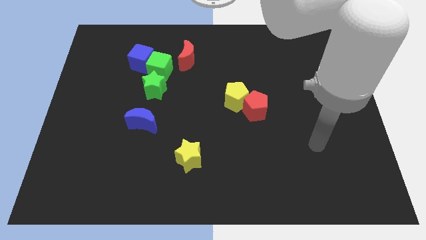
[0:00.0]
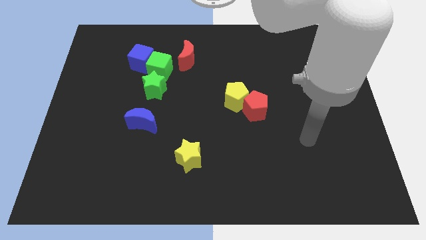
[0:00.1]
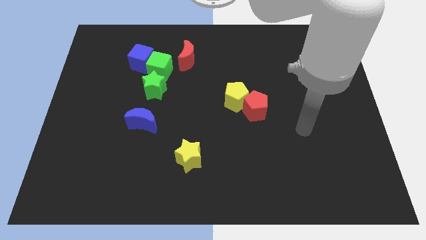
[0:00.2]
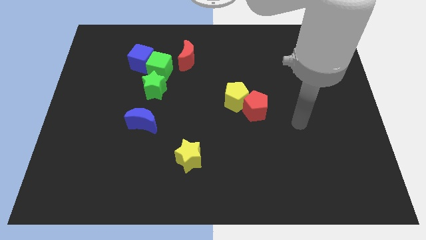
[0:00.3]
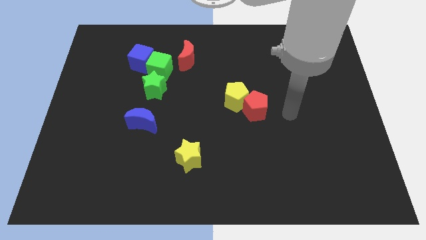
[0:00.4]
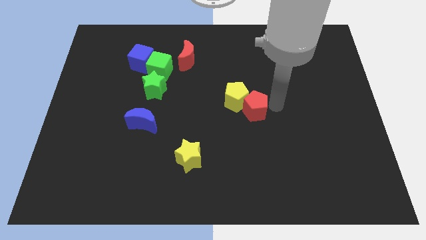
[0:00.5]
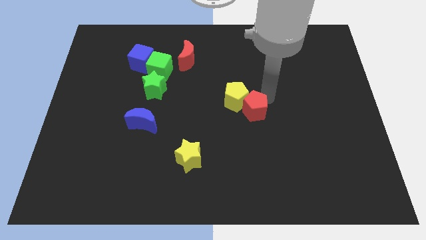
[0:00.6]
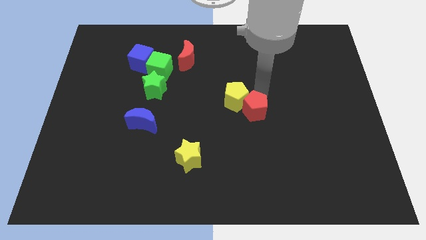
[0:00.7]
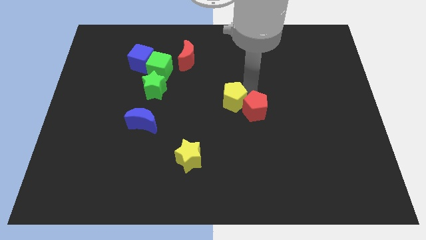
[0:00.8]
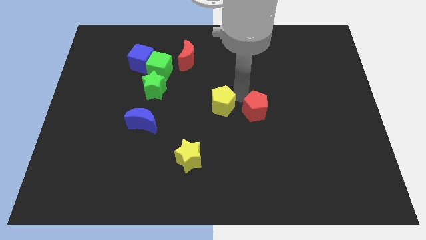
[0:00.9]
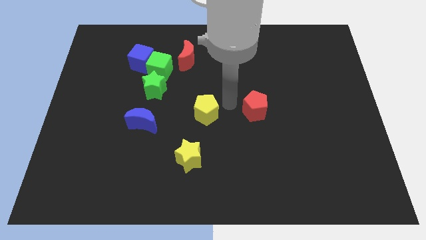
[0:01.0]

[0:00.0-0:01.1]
move the red pentagon away from the yellow pentagon

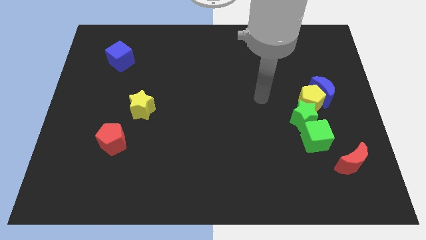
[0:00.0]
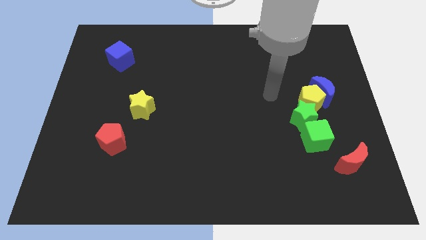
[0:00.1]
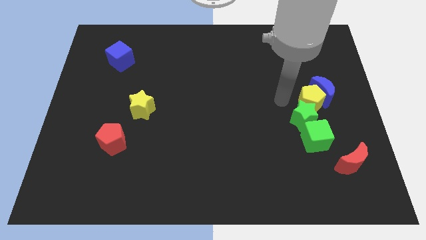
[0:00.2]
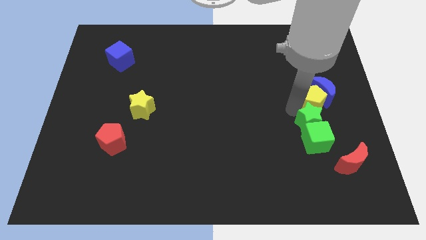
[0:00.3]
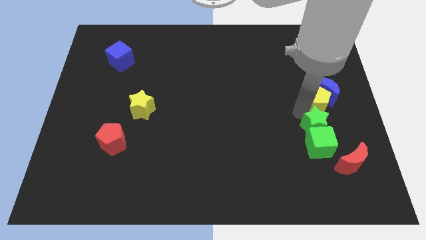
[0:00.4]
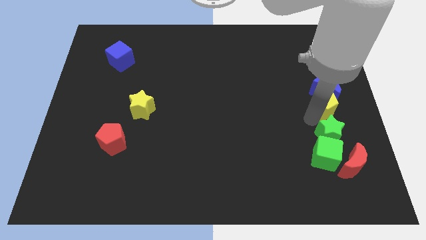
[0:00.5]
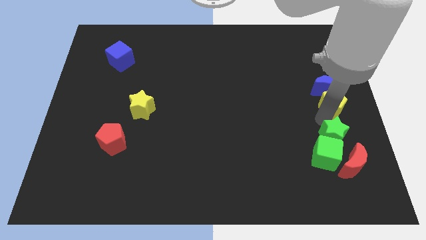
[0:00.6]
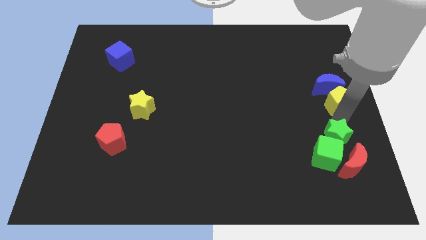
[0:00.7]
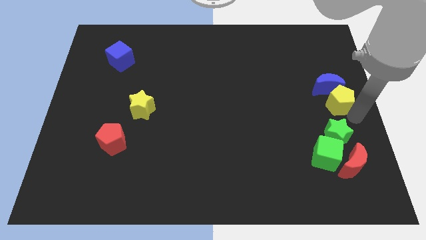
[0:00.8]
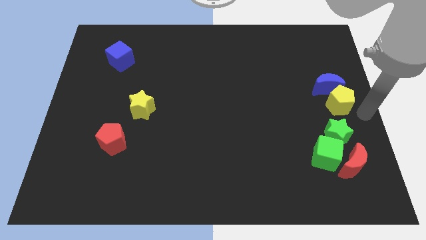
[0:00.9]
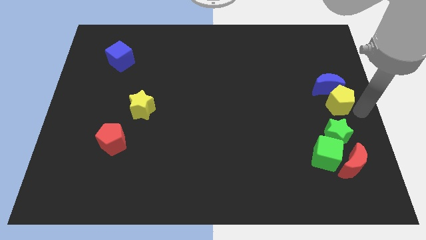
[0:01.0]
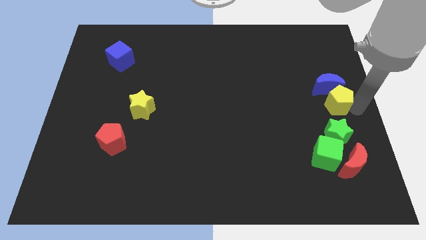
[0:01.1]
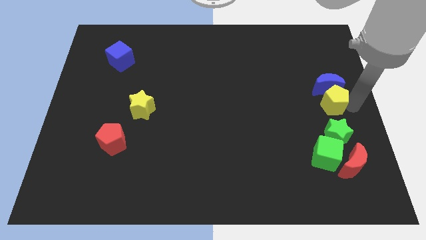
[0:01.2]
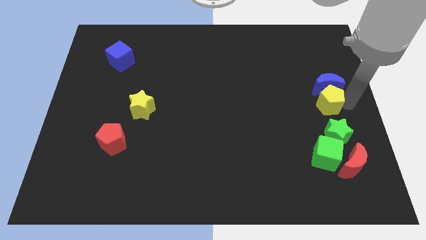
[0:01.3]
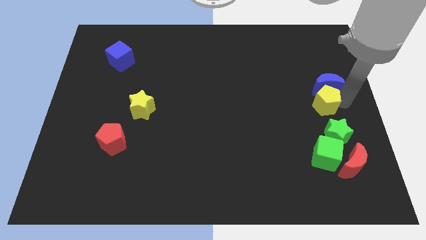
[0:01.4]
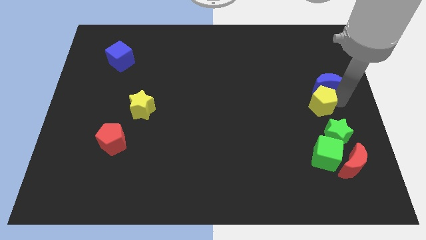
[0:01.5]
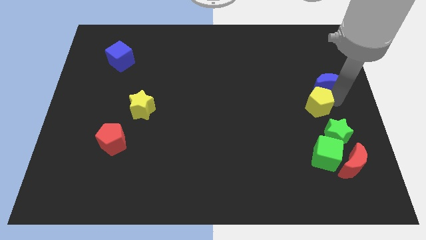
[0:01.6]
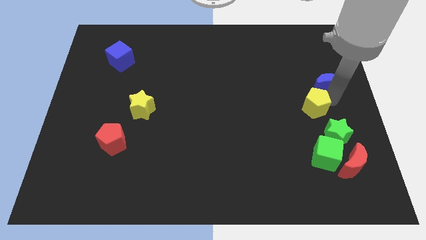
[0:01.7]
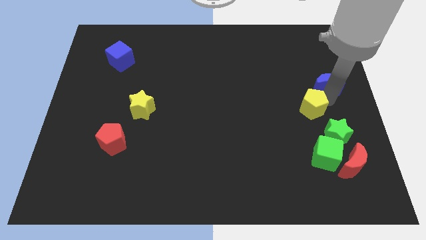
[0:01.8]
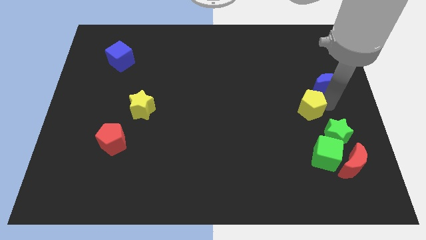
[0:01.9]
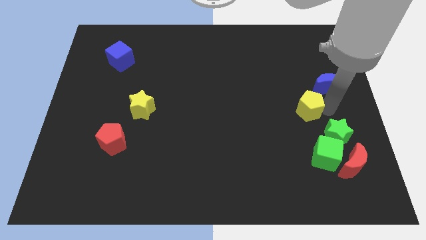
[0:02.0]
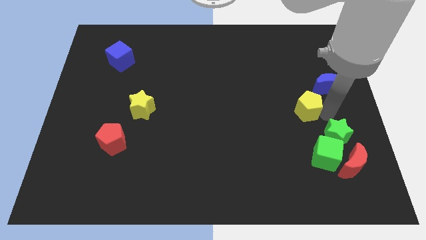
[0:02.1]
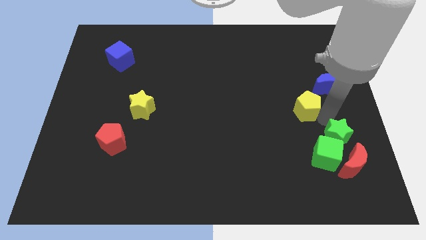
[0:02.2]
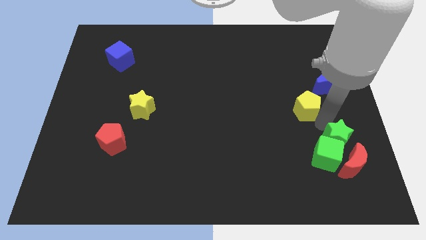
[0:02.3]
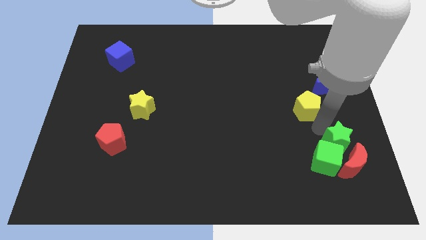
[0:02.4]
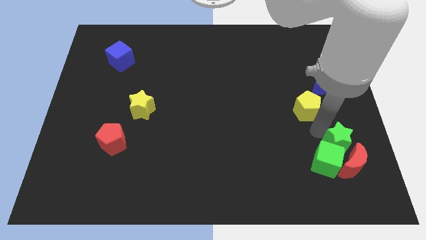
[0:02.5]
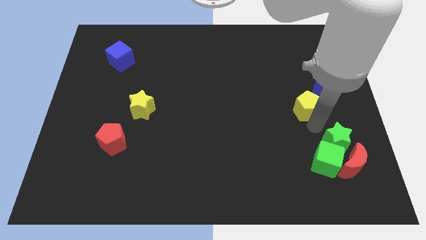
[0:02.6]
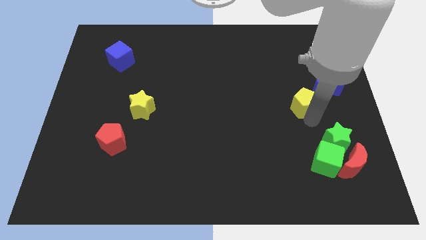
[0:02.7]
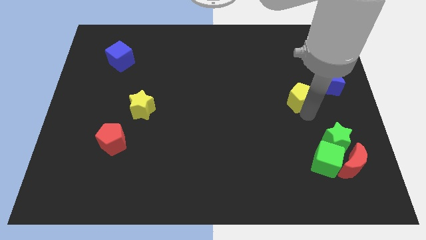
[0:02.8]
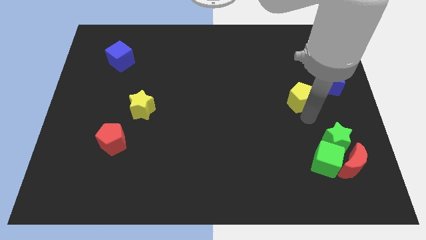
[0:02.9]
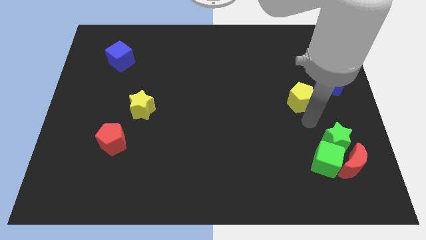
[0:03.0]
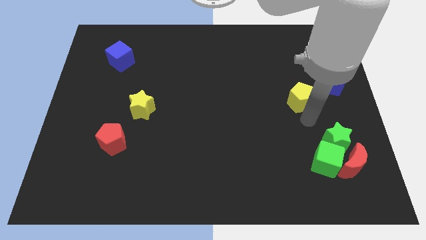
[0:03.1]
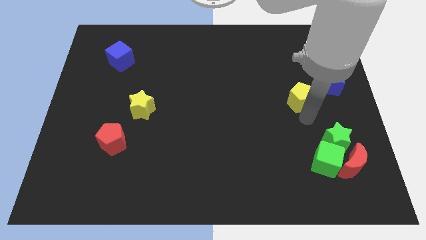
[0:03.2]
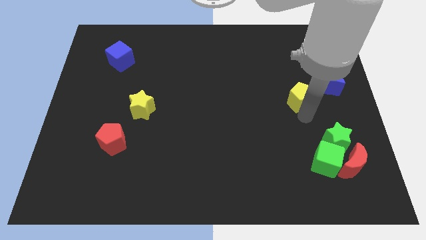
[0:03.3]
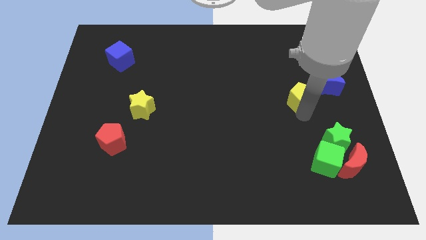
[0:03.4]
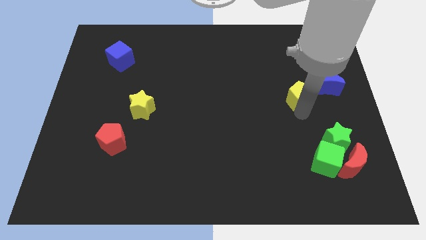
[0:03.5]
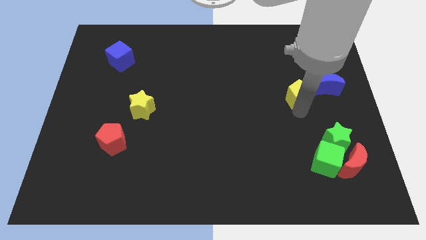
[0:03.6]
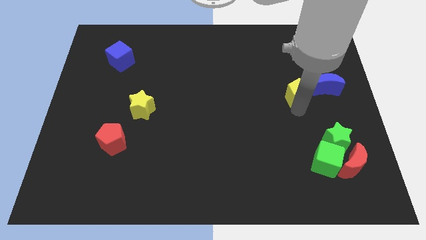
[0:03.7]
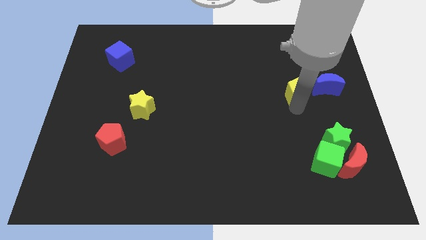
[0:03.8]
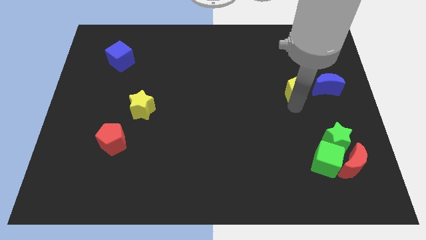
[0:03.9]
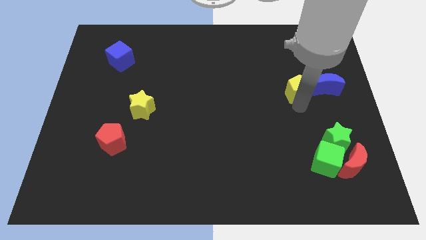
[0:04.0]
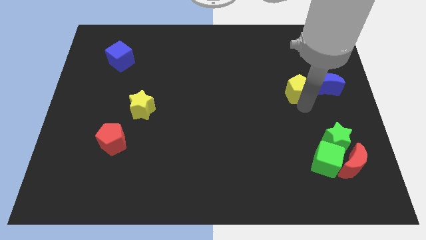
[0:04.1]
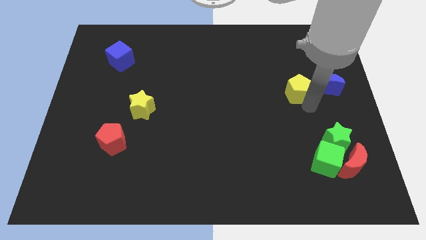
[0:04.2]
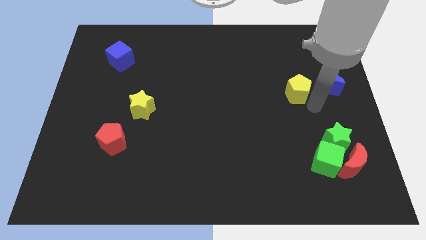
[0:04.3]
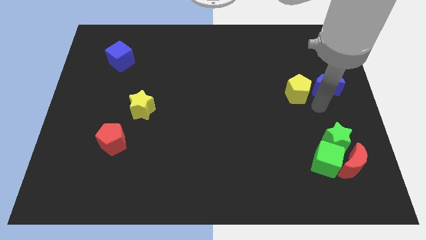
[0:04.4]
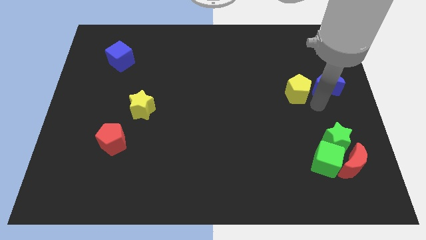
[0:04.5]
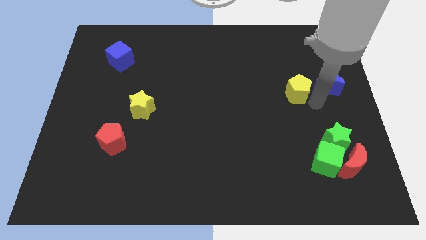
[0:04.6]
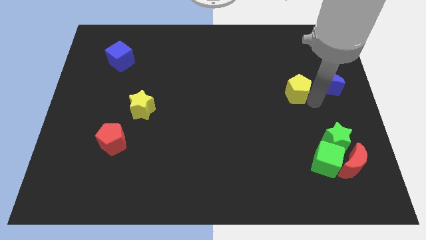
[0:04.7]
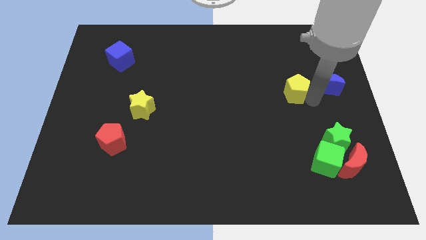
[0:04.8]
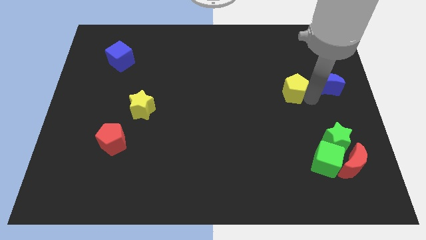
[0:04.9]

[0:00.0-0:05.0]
separate the yellow pentagon from the blue moon and green star

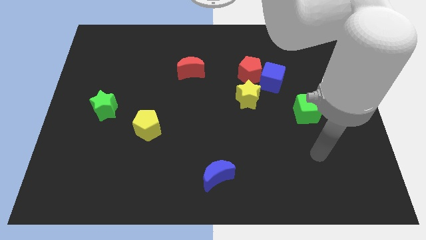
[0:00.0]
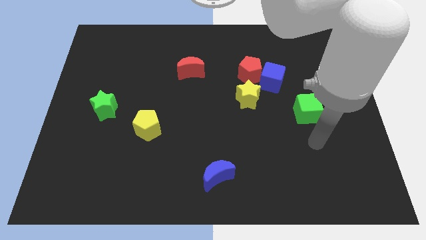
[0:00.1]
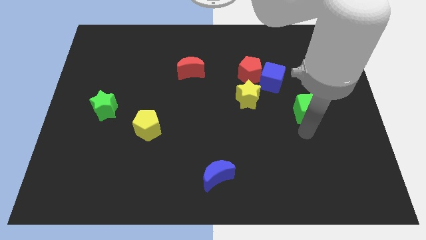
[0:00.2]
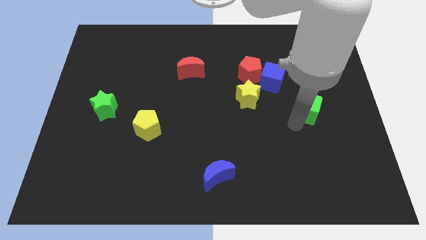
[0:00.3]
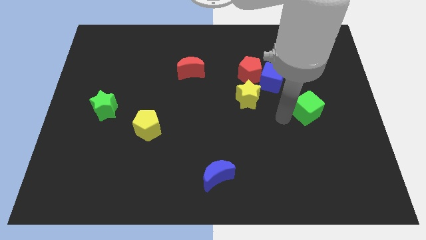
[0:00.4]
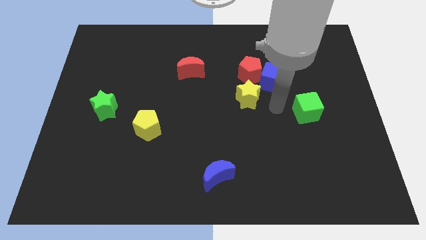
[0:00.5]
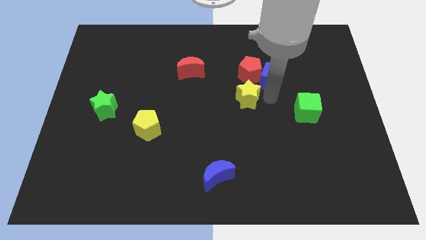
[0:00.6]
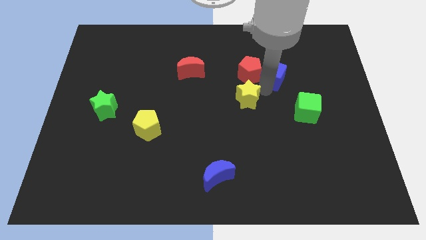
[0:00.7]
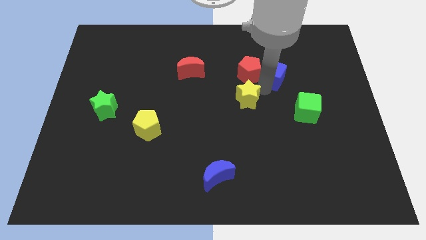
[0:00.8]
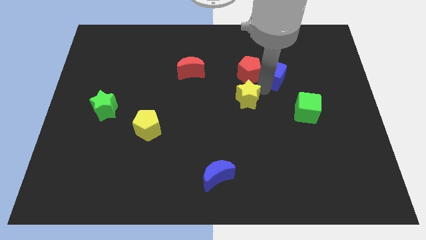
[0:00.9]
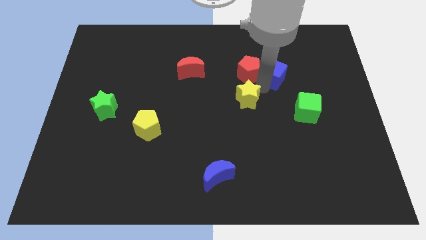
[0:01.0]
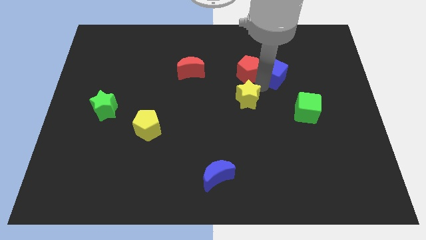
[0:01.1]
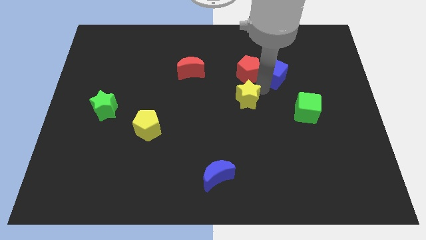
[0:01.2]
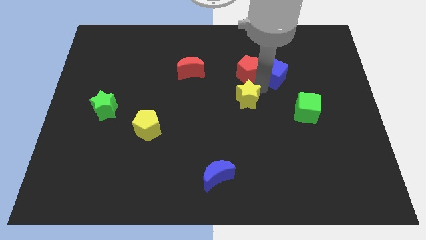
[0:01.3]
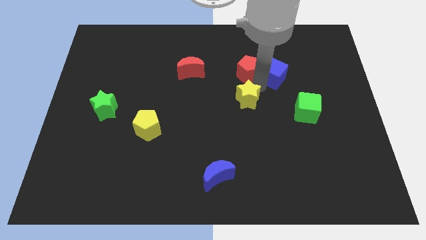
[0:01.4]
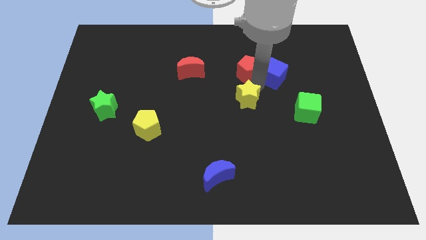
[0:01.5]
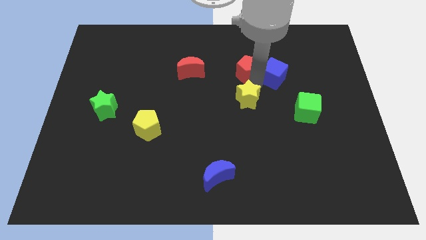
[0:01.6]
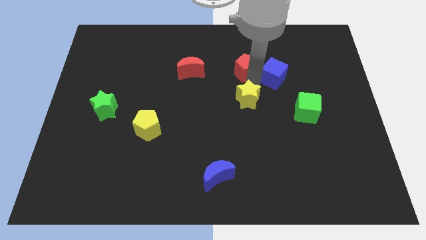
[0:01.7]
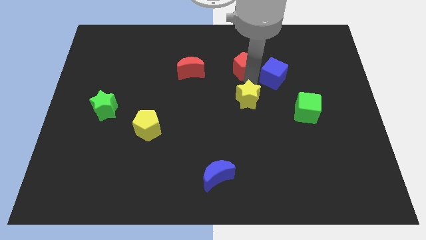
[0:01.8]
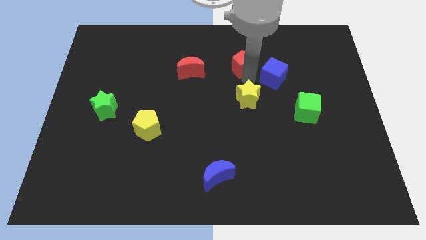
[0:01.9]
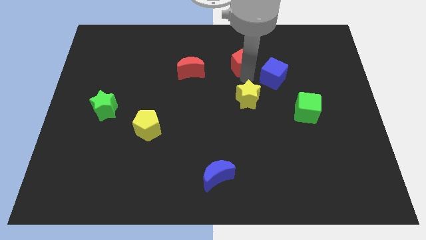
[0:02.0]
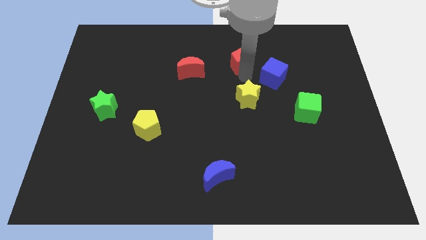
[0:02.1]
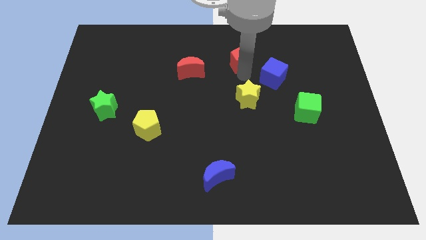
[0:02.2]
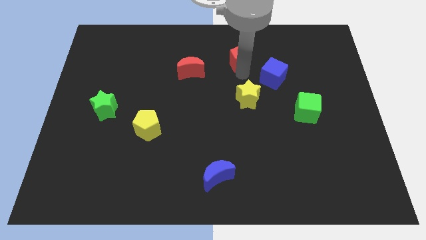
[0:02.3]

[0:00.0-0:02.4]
pull the red pentagon apart from the blue cube and yellow star

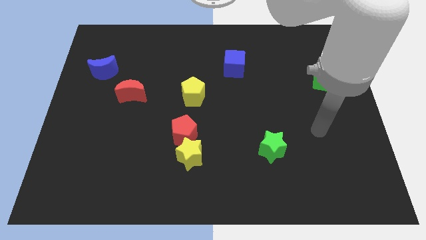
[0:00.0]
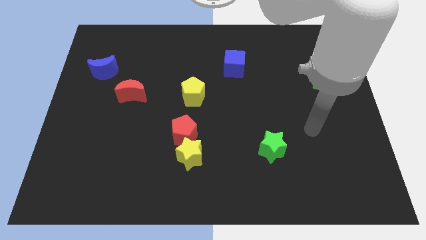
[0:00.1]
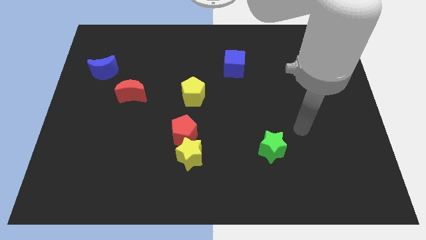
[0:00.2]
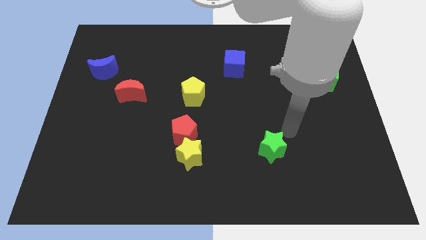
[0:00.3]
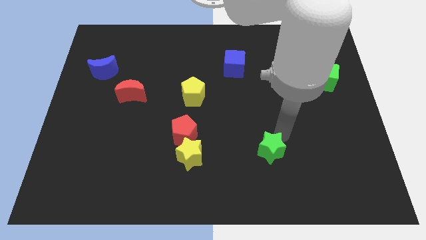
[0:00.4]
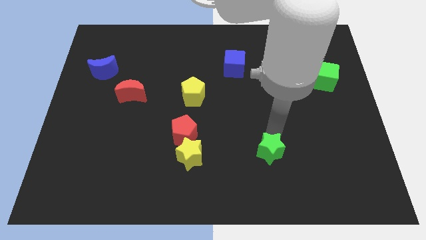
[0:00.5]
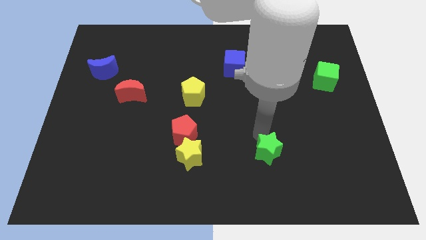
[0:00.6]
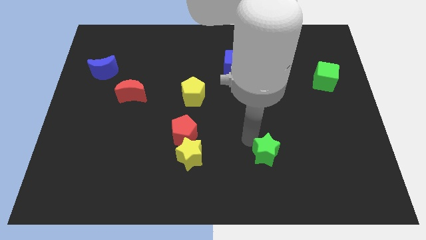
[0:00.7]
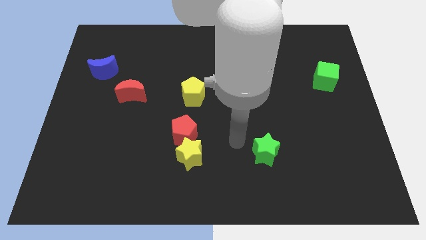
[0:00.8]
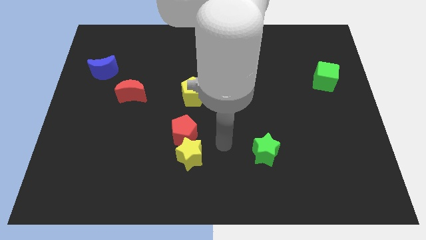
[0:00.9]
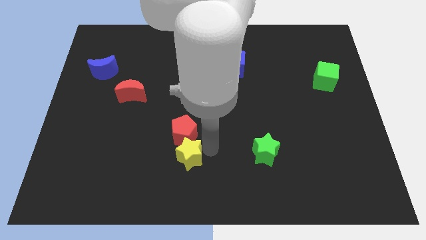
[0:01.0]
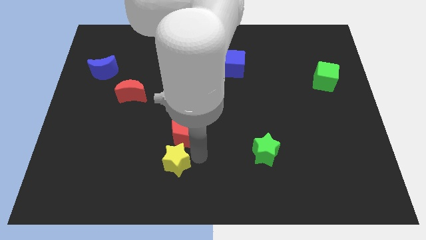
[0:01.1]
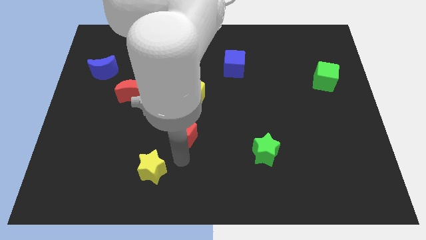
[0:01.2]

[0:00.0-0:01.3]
move the red pentagon away from the yellow star
